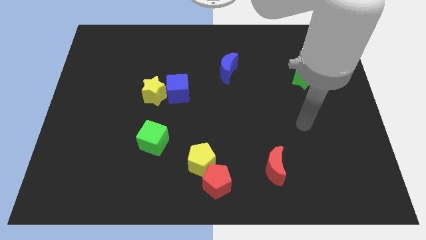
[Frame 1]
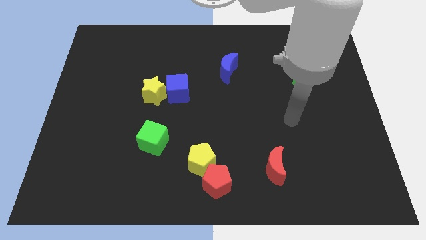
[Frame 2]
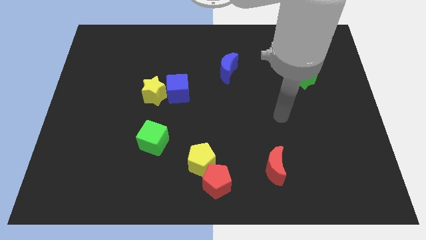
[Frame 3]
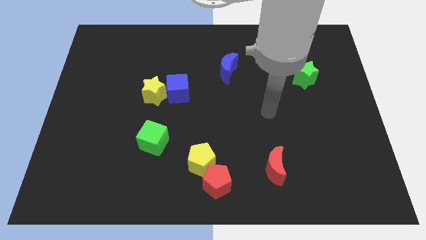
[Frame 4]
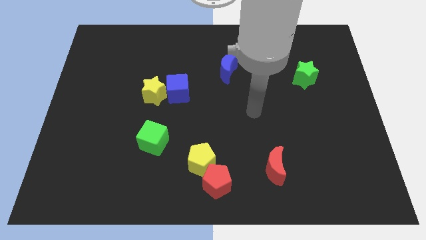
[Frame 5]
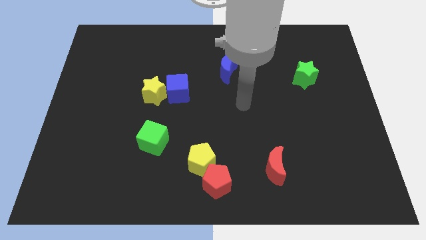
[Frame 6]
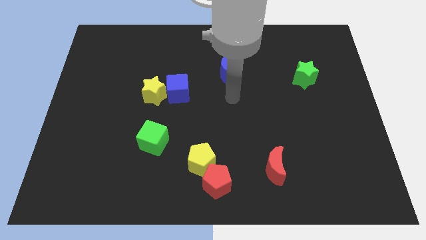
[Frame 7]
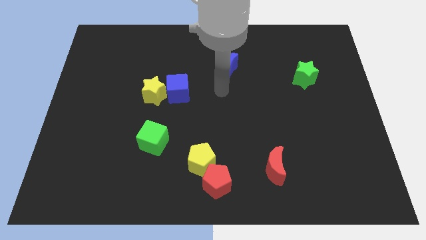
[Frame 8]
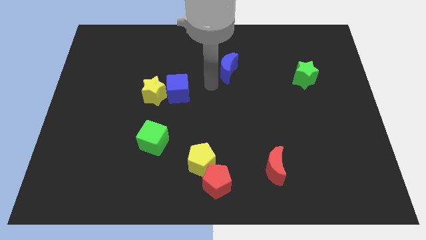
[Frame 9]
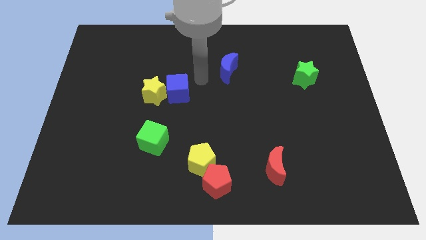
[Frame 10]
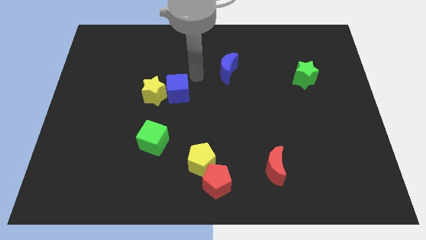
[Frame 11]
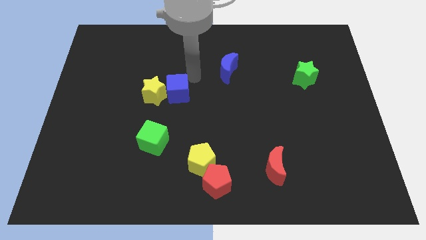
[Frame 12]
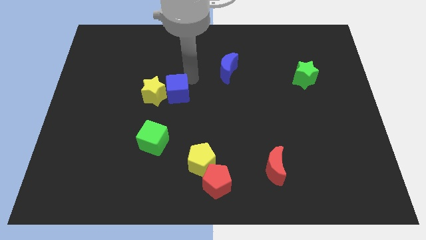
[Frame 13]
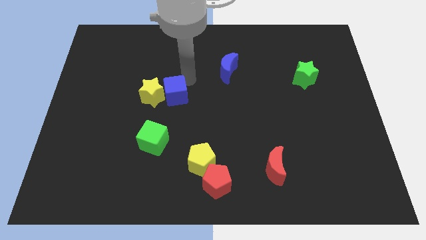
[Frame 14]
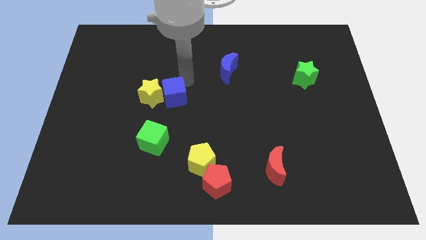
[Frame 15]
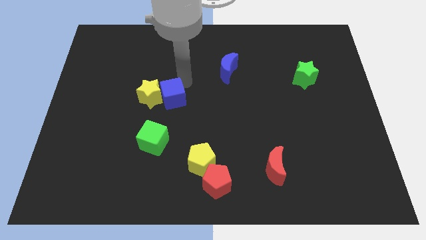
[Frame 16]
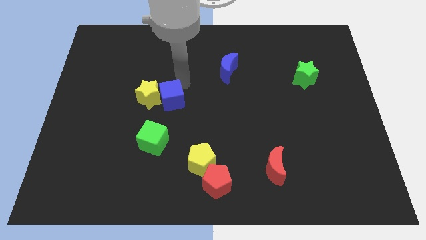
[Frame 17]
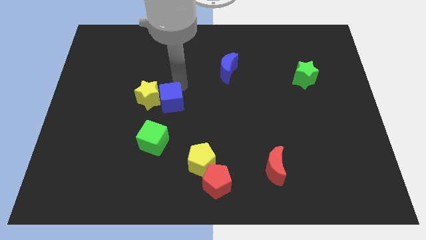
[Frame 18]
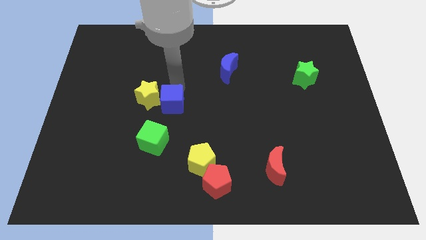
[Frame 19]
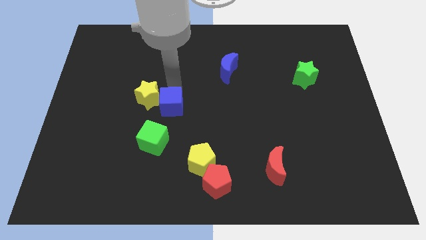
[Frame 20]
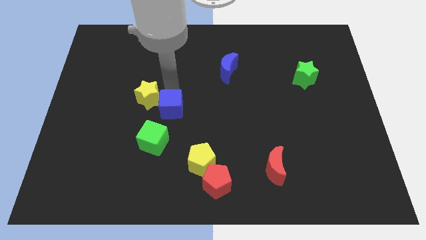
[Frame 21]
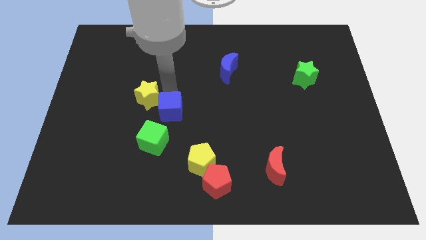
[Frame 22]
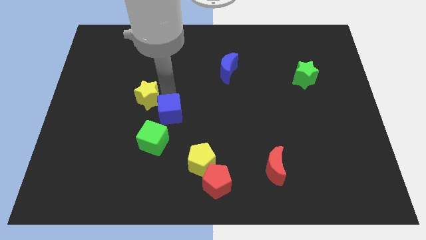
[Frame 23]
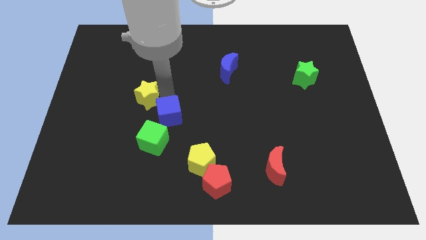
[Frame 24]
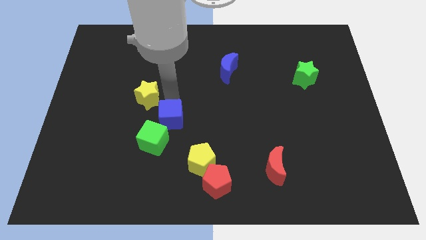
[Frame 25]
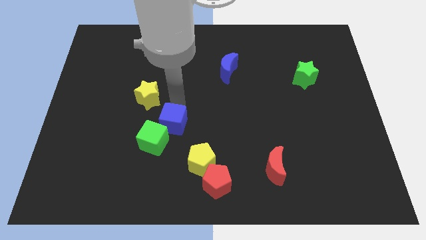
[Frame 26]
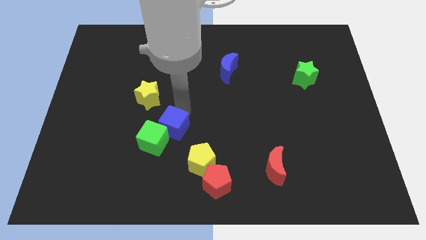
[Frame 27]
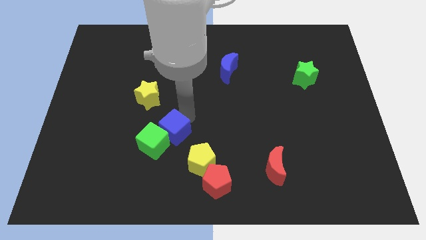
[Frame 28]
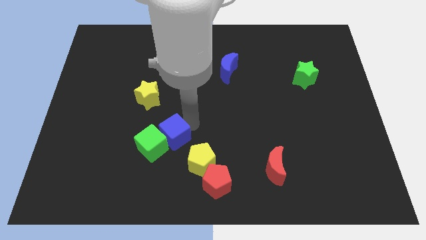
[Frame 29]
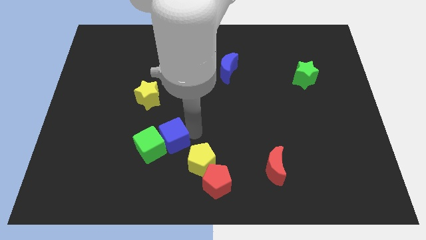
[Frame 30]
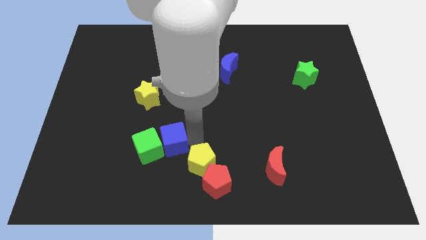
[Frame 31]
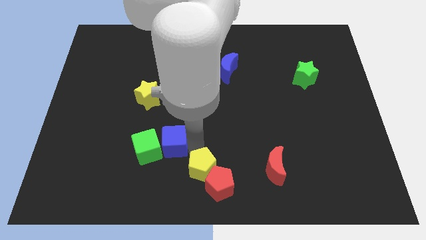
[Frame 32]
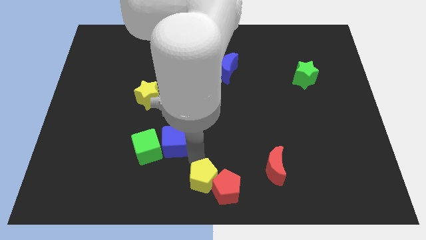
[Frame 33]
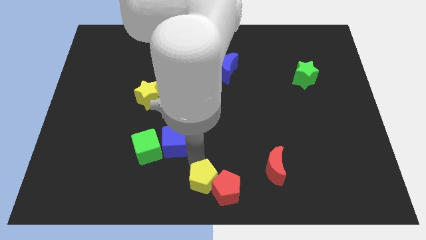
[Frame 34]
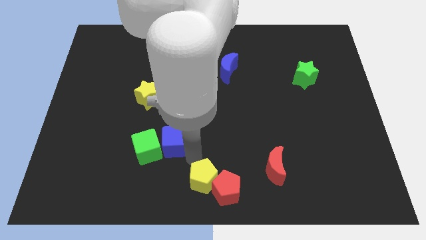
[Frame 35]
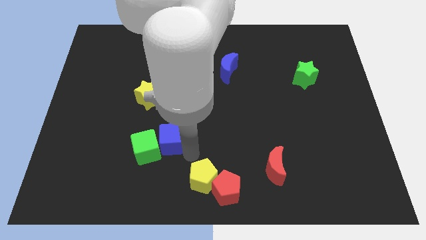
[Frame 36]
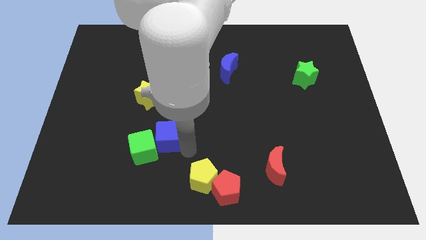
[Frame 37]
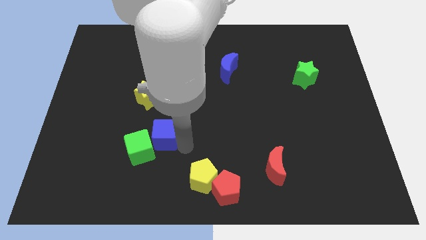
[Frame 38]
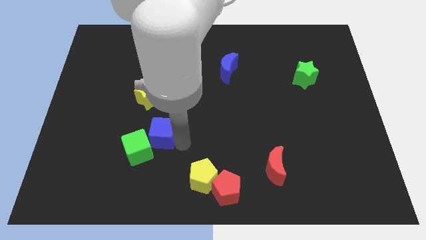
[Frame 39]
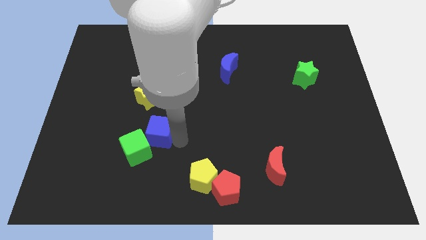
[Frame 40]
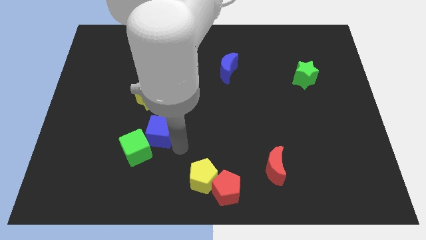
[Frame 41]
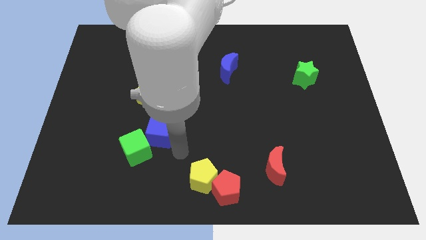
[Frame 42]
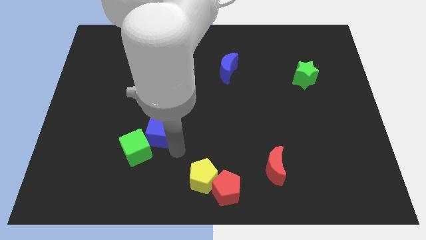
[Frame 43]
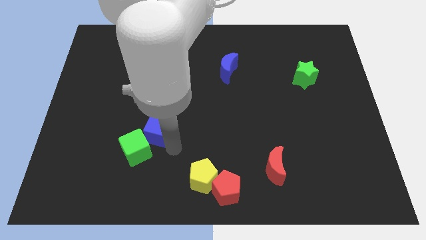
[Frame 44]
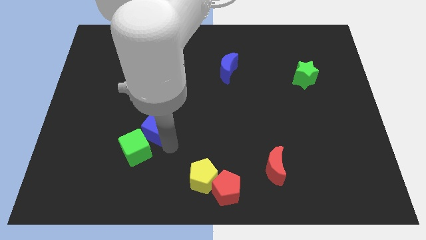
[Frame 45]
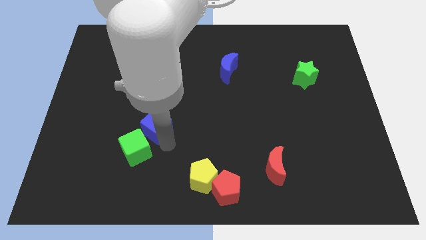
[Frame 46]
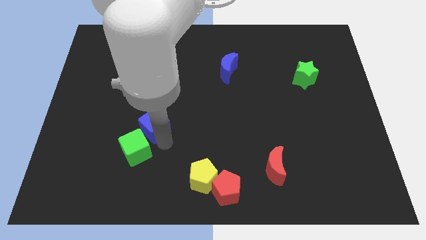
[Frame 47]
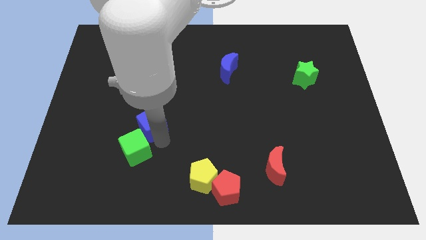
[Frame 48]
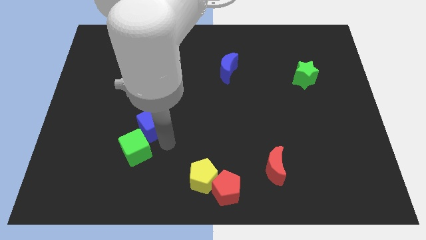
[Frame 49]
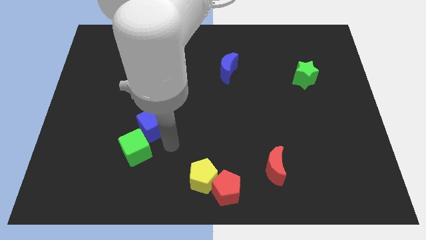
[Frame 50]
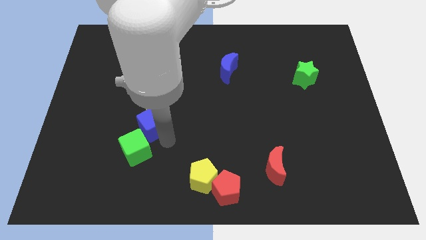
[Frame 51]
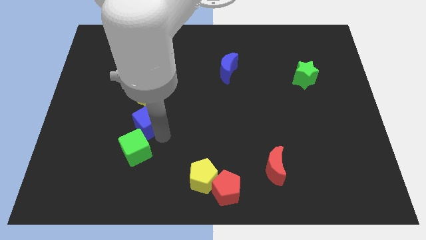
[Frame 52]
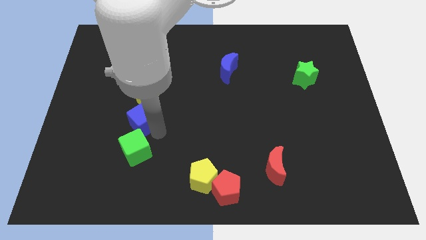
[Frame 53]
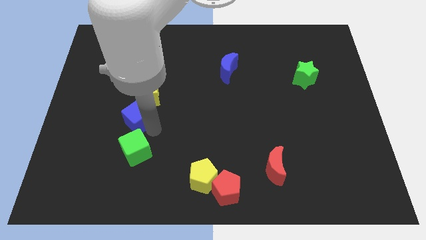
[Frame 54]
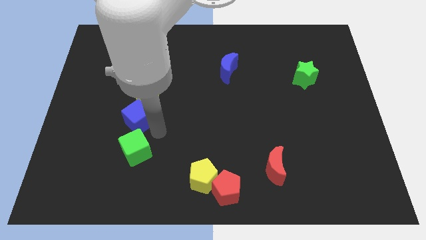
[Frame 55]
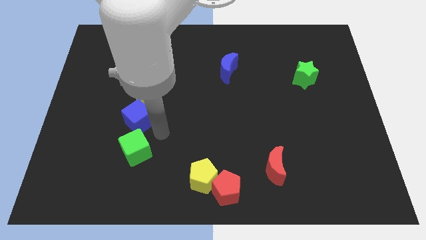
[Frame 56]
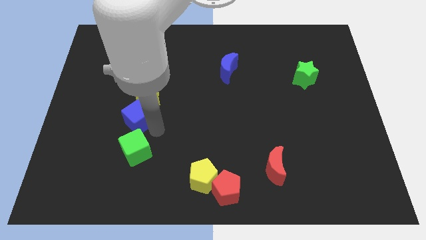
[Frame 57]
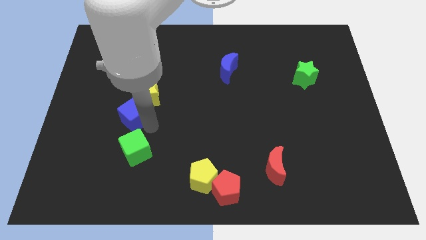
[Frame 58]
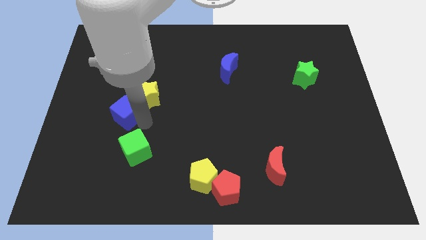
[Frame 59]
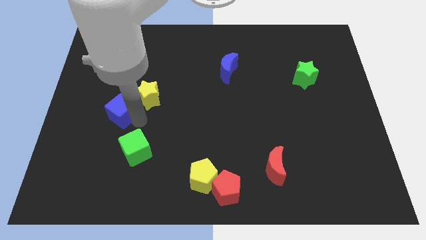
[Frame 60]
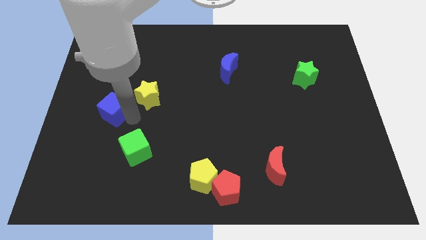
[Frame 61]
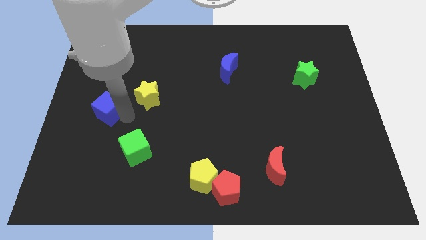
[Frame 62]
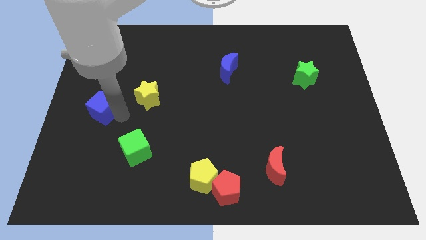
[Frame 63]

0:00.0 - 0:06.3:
slide the blue cube to the left side

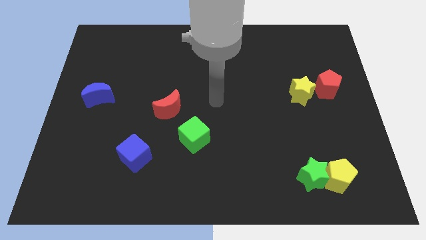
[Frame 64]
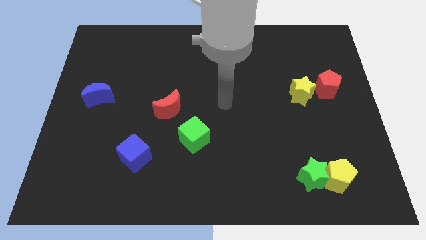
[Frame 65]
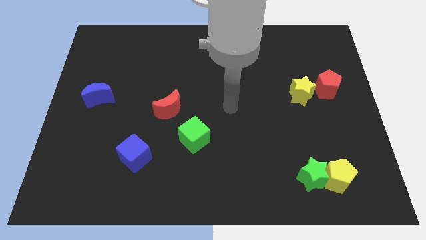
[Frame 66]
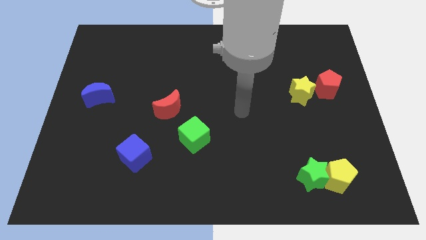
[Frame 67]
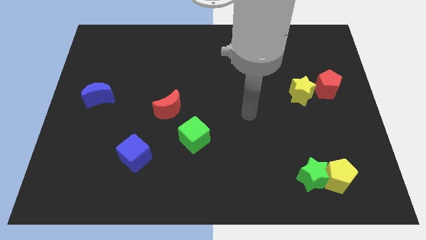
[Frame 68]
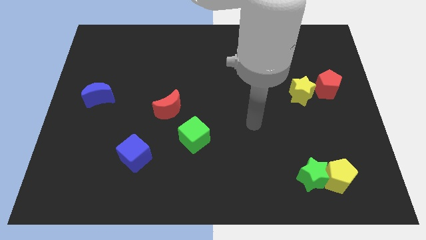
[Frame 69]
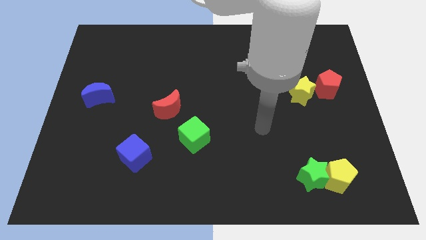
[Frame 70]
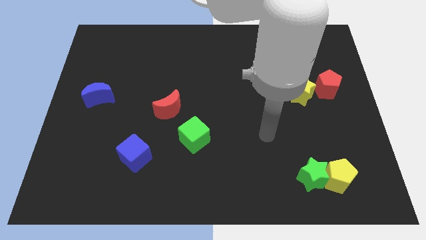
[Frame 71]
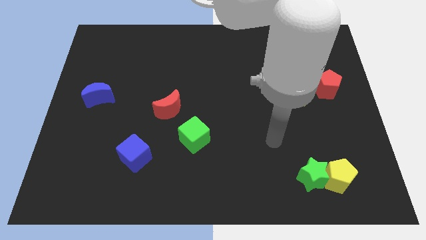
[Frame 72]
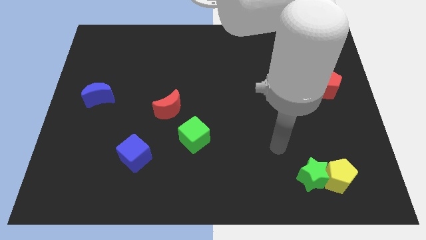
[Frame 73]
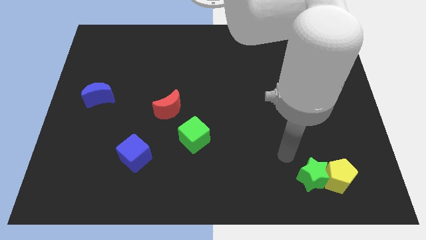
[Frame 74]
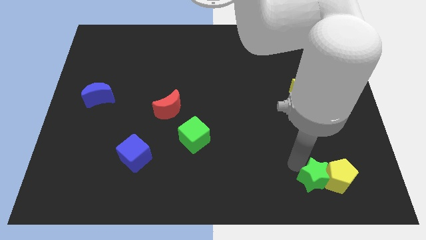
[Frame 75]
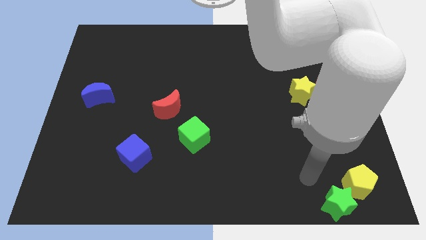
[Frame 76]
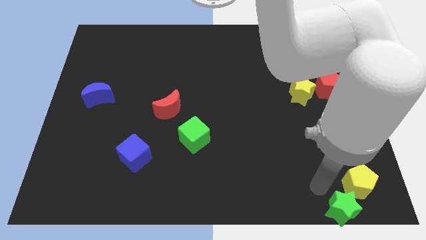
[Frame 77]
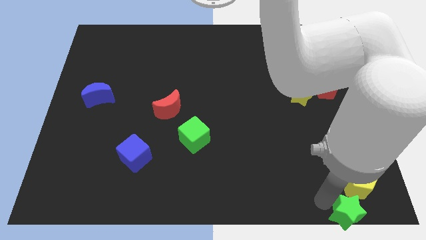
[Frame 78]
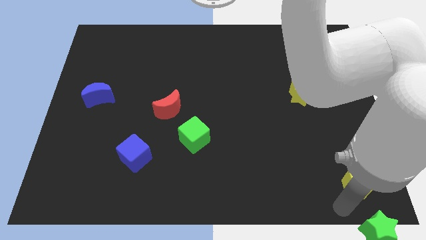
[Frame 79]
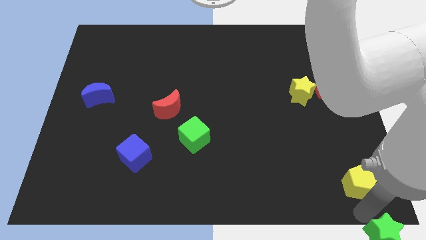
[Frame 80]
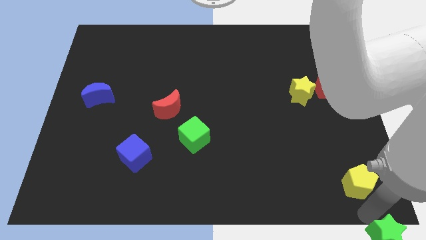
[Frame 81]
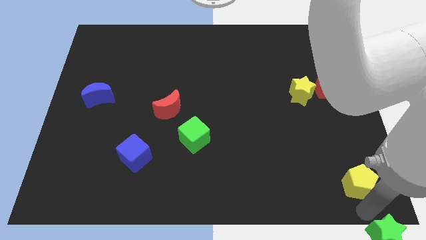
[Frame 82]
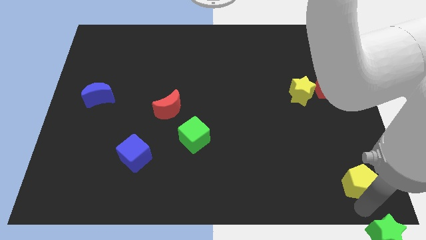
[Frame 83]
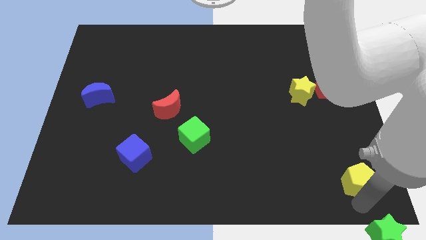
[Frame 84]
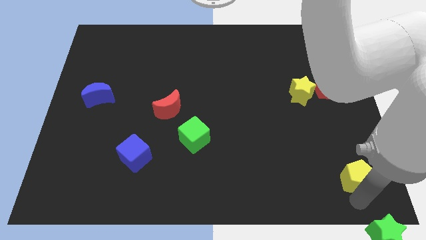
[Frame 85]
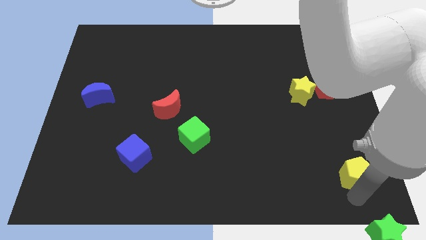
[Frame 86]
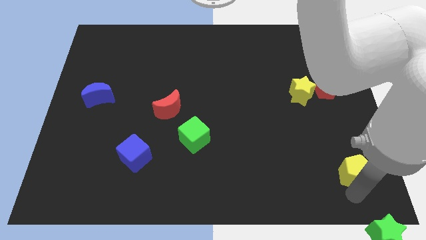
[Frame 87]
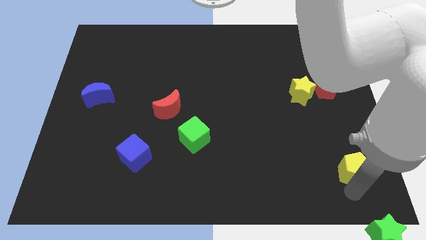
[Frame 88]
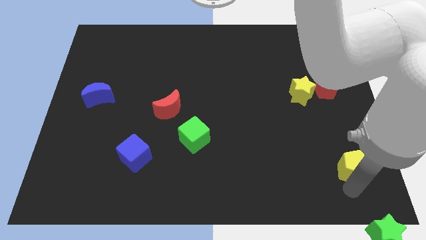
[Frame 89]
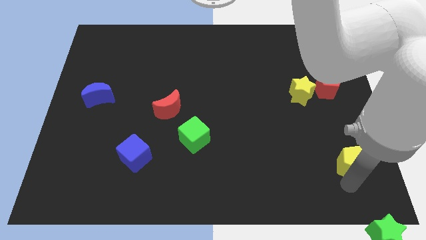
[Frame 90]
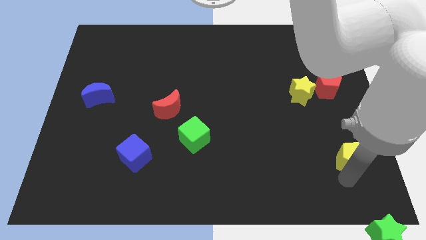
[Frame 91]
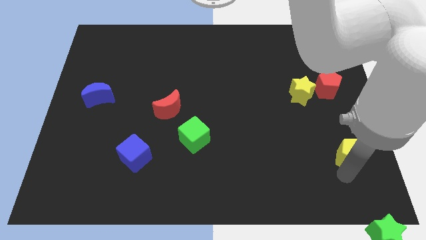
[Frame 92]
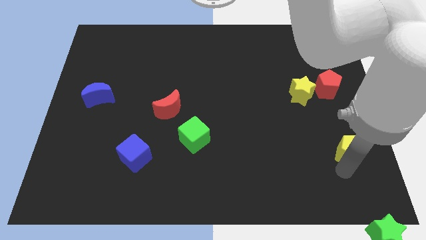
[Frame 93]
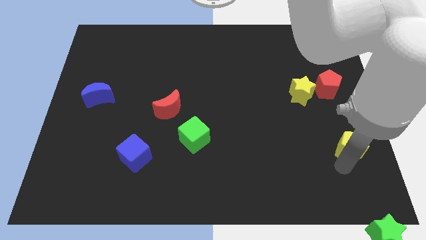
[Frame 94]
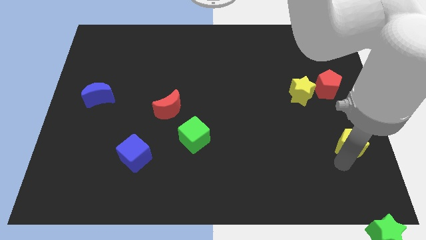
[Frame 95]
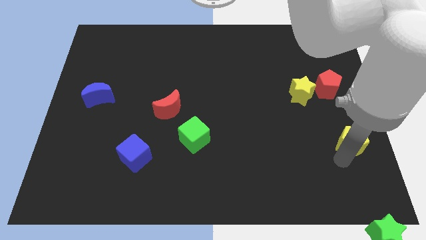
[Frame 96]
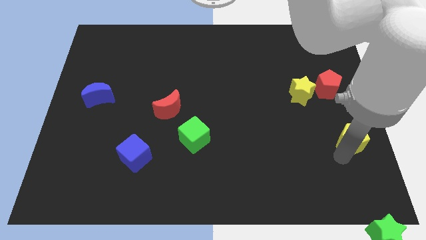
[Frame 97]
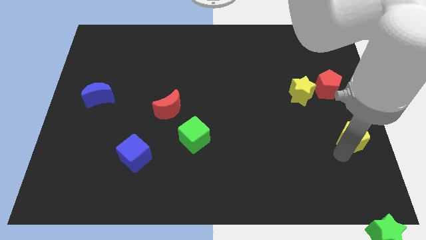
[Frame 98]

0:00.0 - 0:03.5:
push the yellow pentagon to the right side of the board
